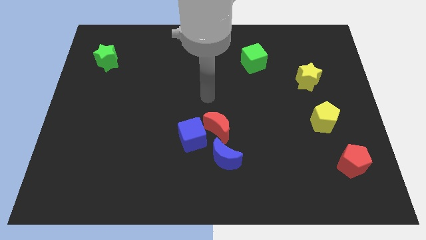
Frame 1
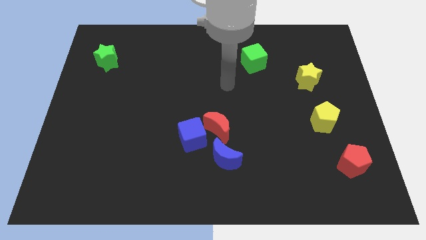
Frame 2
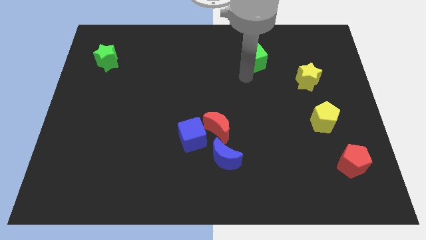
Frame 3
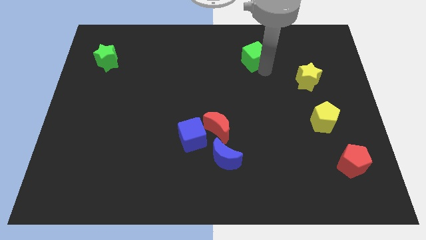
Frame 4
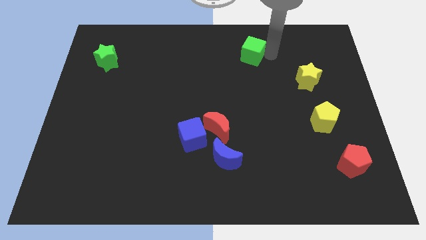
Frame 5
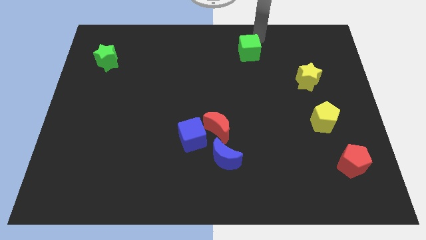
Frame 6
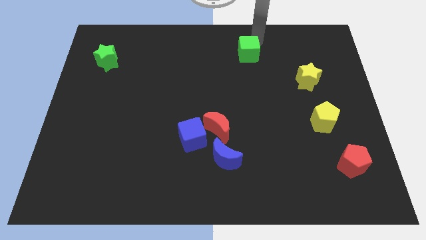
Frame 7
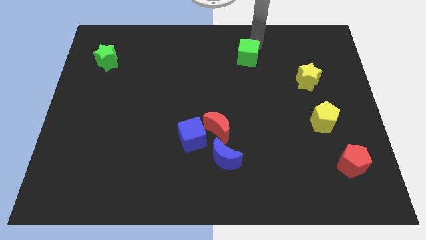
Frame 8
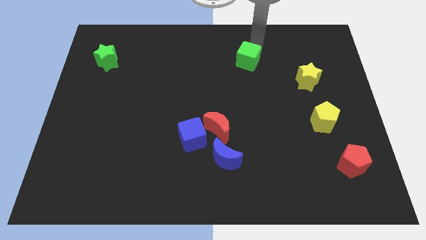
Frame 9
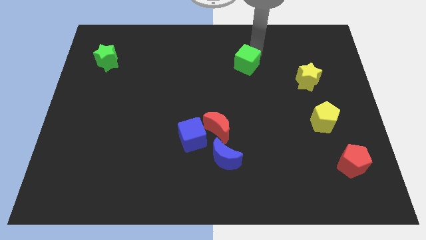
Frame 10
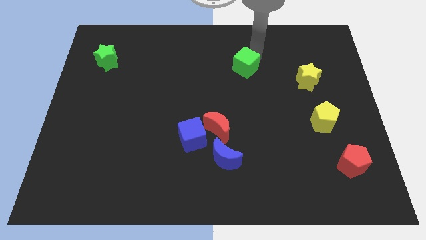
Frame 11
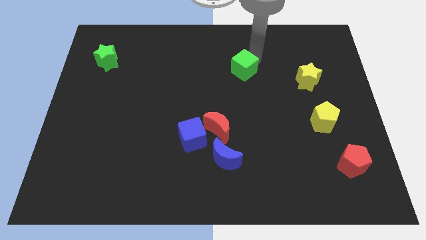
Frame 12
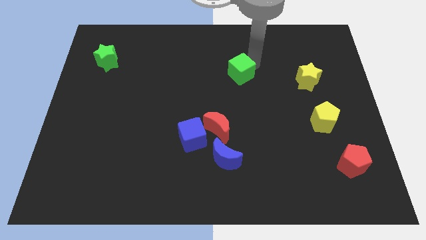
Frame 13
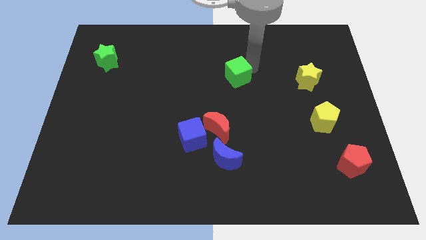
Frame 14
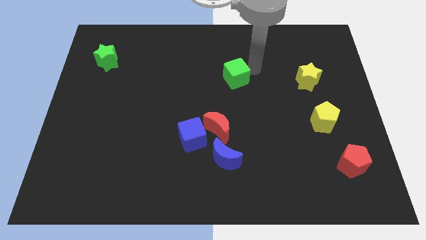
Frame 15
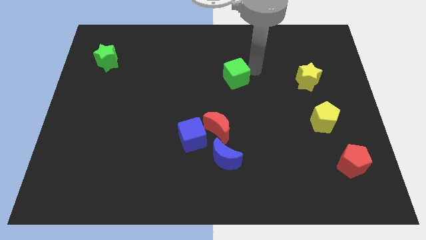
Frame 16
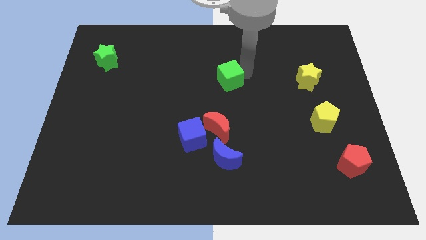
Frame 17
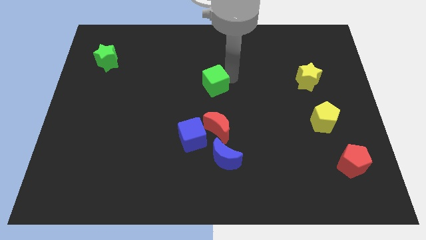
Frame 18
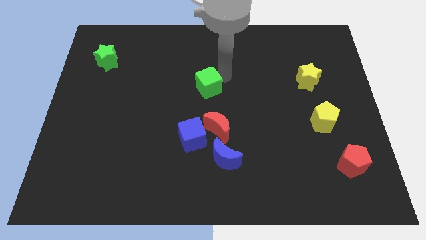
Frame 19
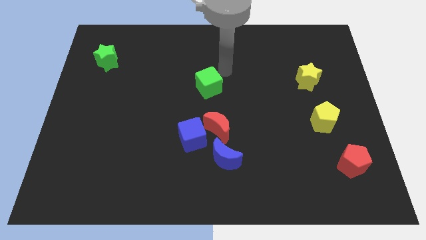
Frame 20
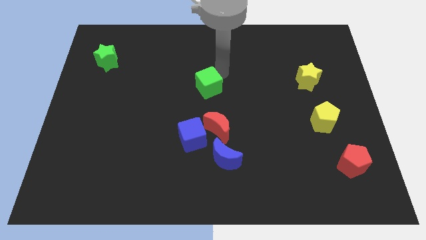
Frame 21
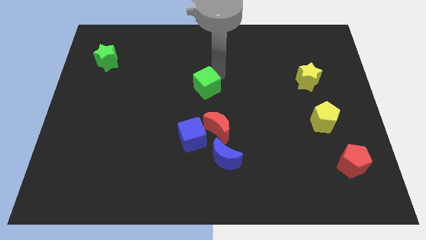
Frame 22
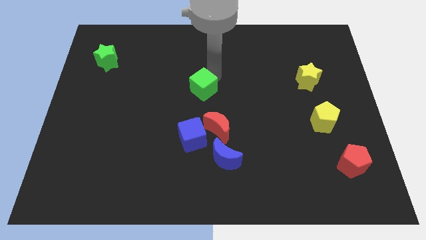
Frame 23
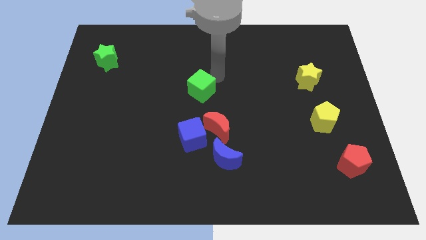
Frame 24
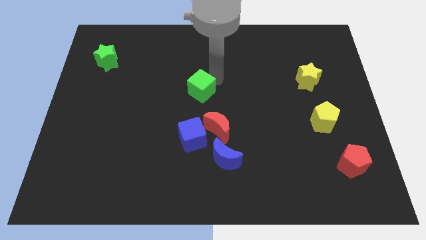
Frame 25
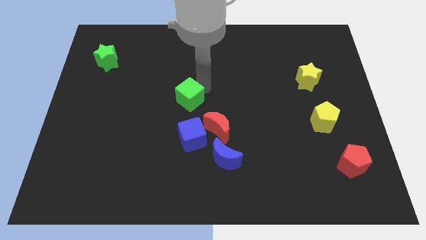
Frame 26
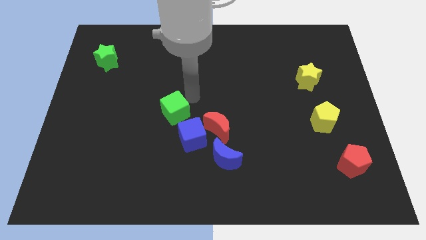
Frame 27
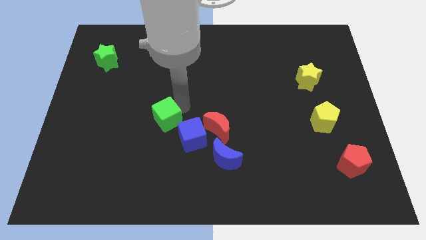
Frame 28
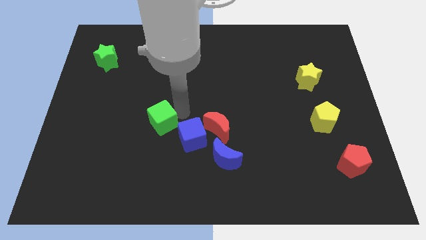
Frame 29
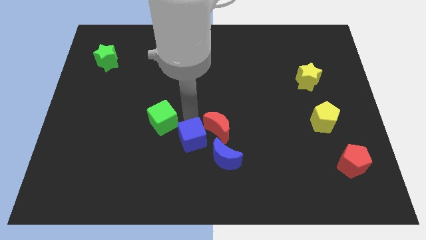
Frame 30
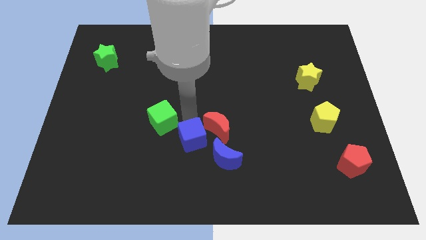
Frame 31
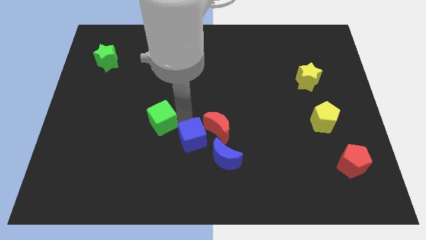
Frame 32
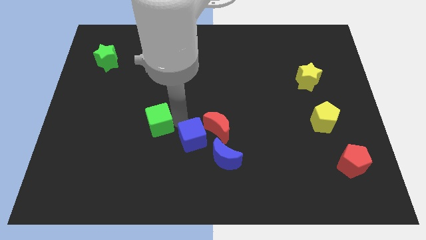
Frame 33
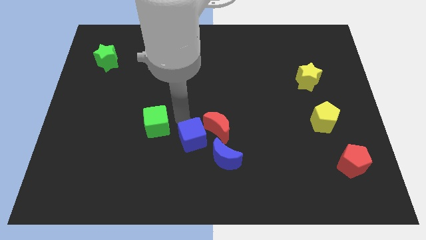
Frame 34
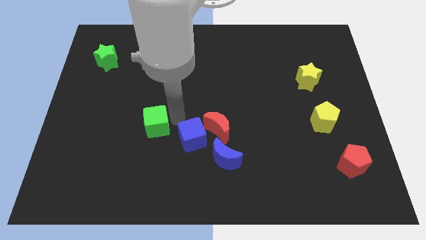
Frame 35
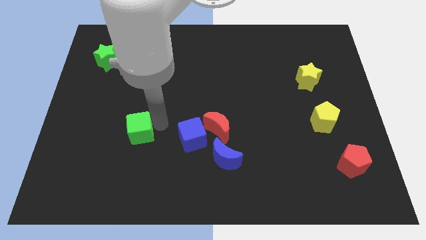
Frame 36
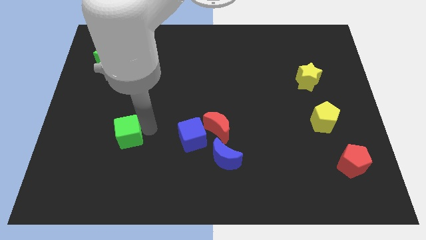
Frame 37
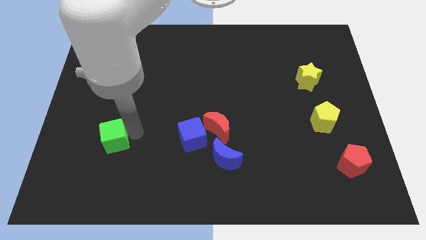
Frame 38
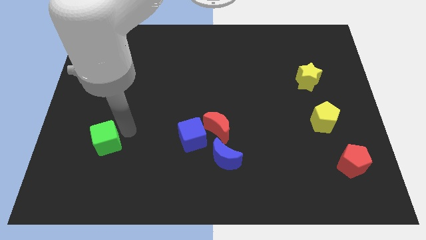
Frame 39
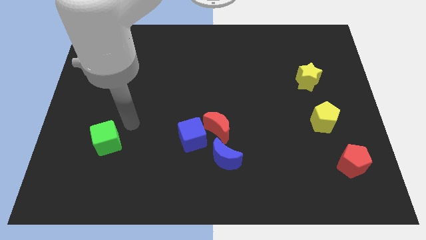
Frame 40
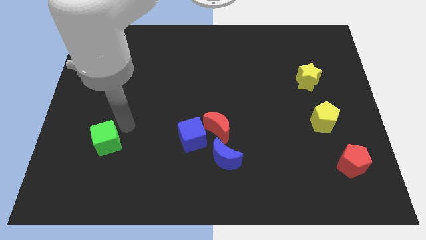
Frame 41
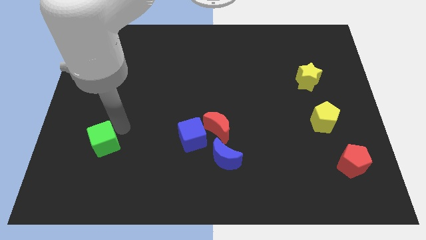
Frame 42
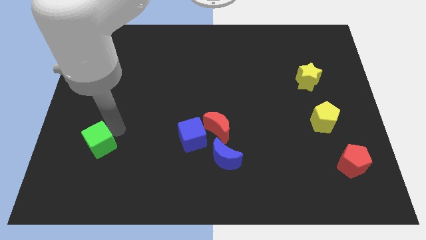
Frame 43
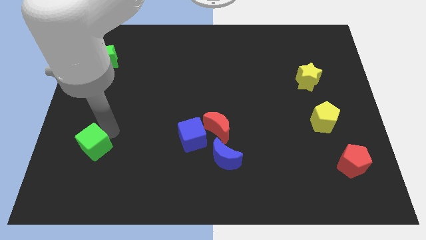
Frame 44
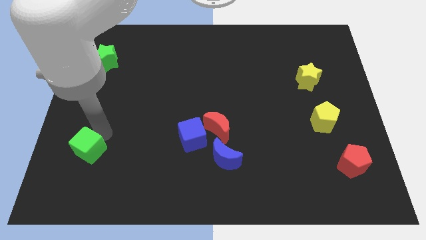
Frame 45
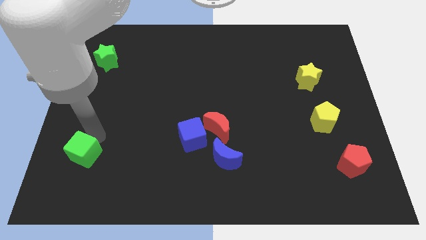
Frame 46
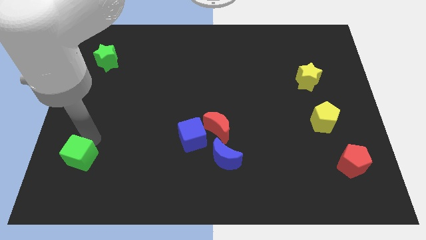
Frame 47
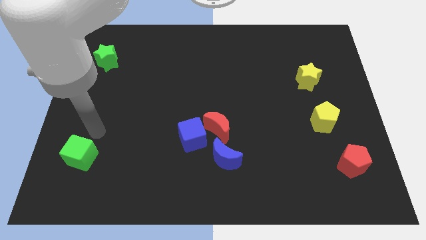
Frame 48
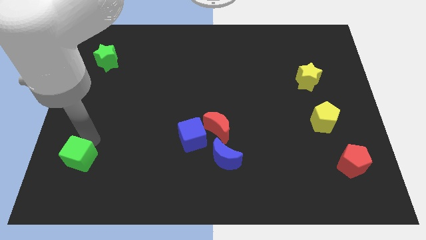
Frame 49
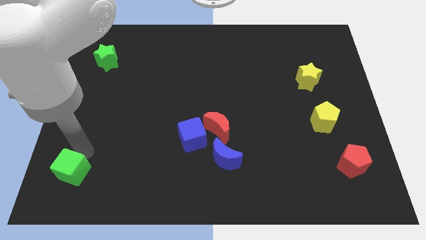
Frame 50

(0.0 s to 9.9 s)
move the green cube to the bottom left

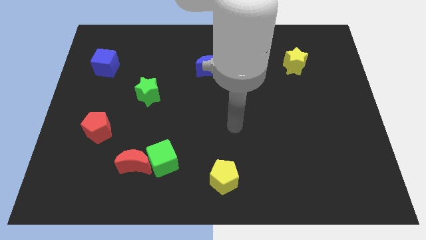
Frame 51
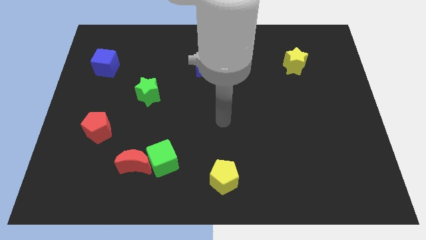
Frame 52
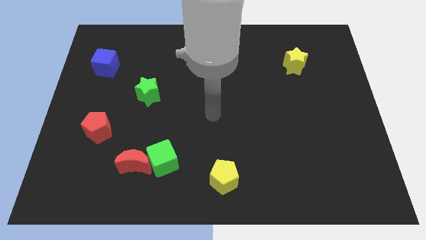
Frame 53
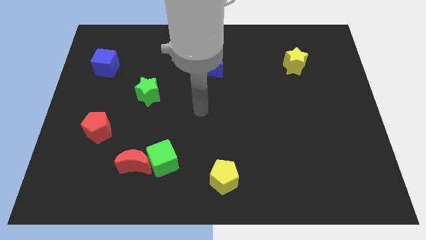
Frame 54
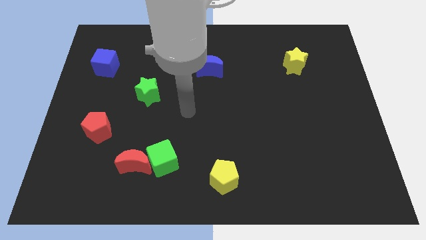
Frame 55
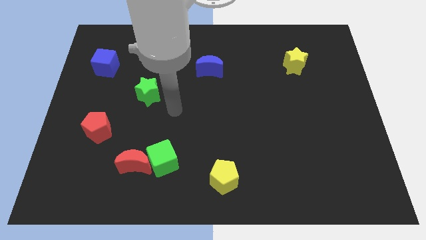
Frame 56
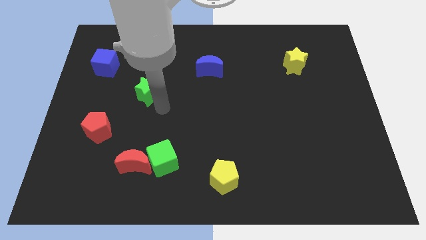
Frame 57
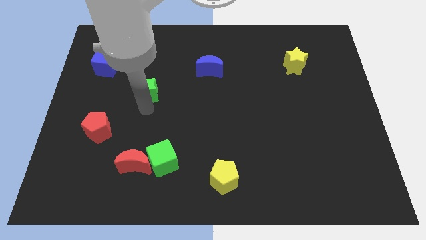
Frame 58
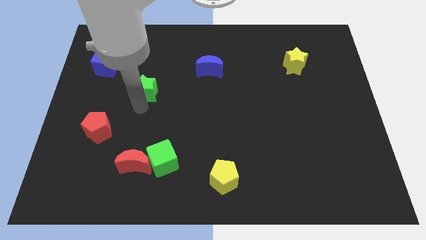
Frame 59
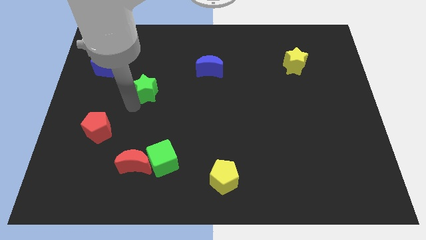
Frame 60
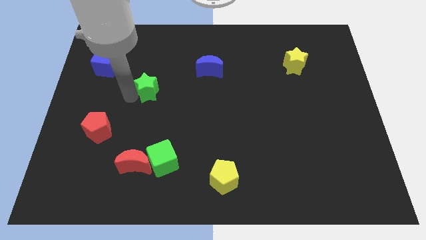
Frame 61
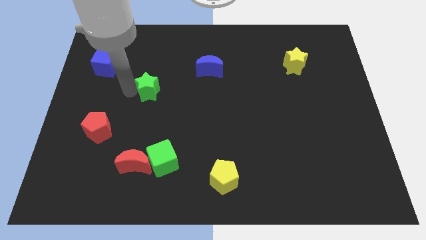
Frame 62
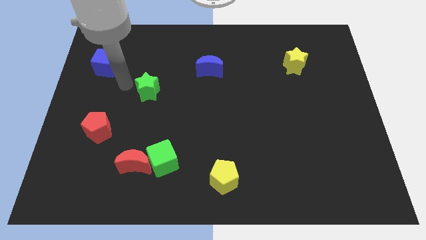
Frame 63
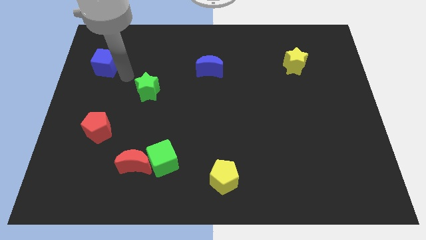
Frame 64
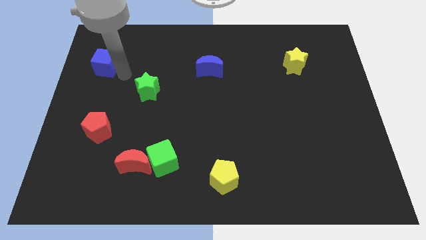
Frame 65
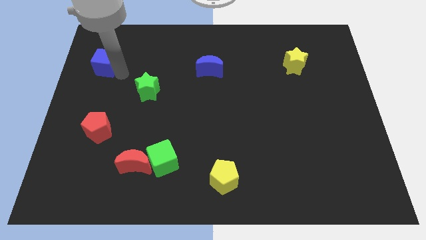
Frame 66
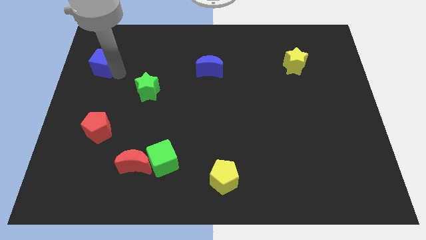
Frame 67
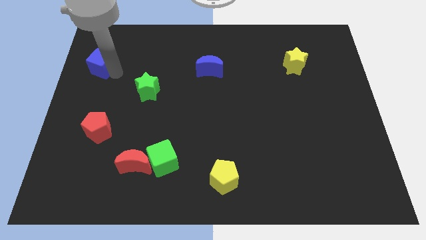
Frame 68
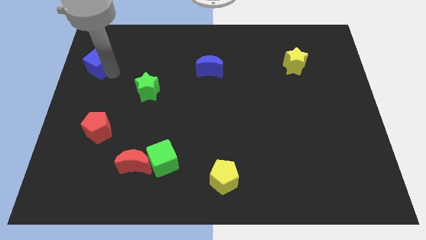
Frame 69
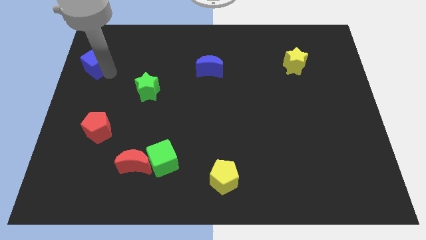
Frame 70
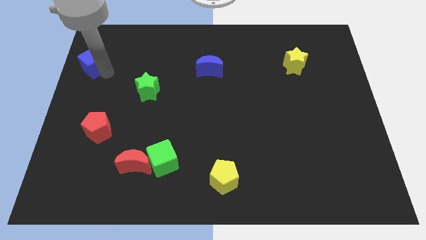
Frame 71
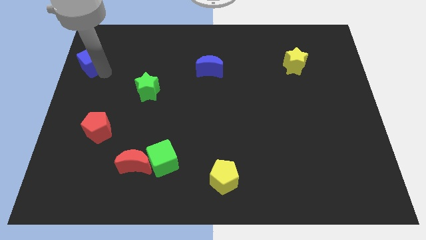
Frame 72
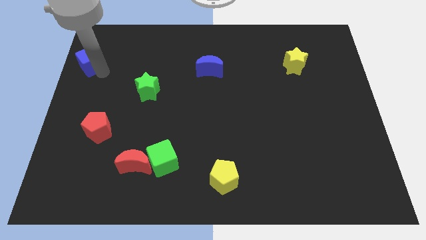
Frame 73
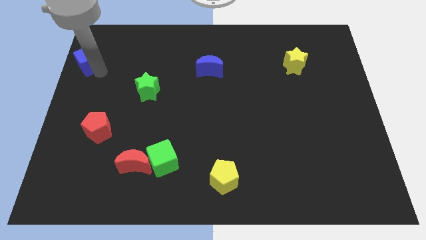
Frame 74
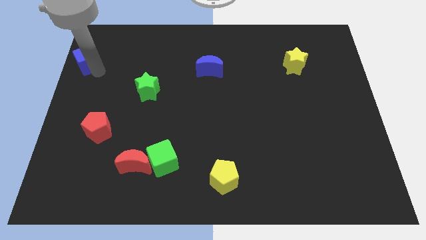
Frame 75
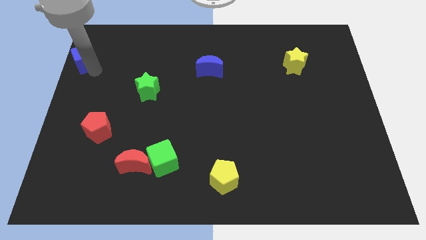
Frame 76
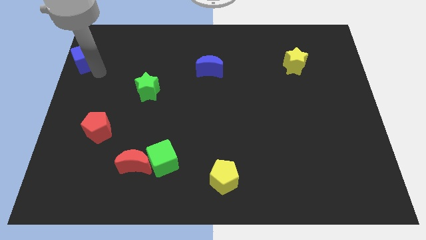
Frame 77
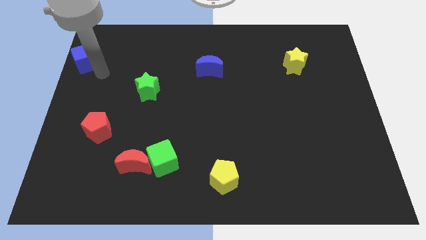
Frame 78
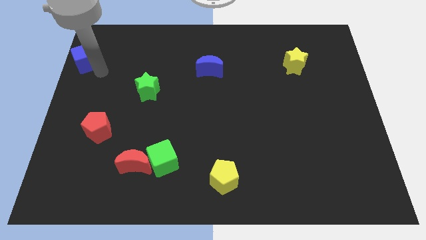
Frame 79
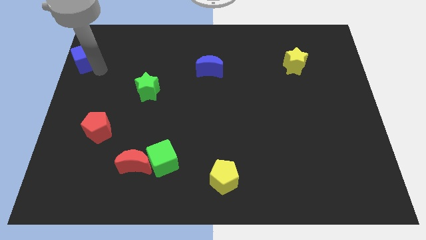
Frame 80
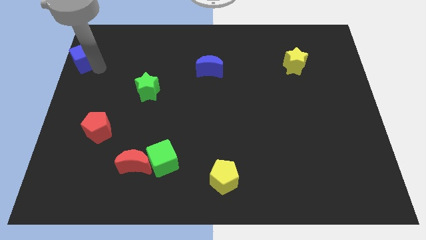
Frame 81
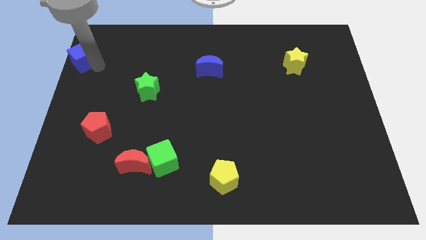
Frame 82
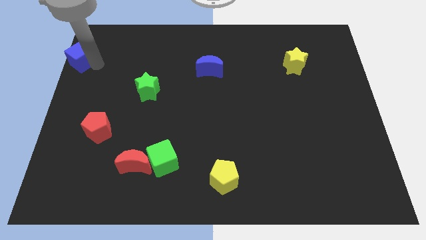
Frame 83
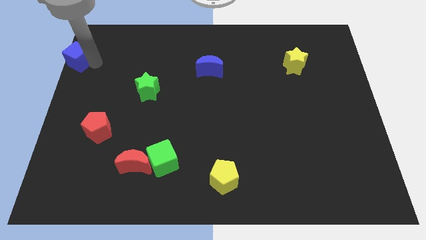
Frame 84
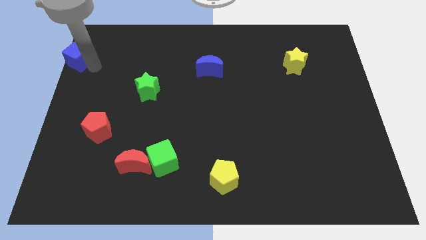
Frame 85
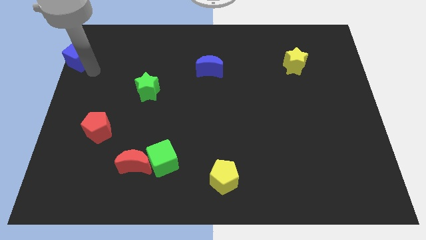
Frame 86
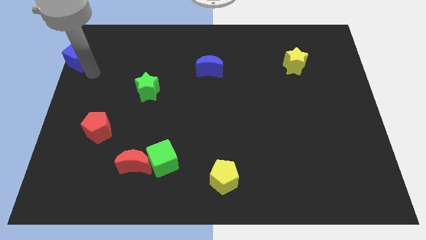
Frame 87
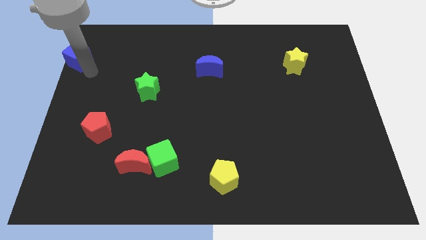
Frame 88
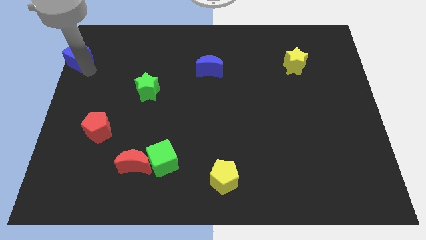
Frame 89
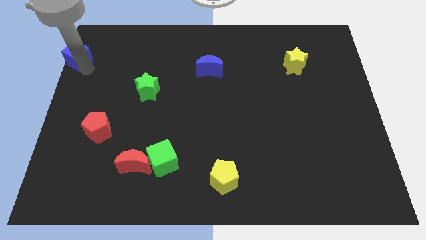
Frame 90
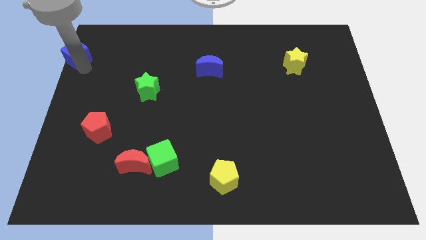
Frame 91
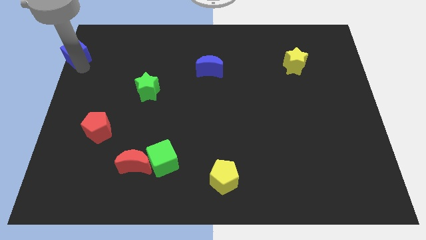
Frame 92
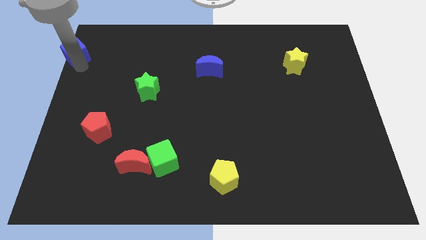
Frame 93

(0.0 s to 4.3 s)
move the blue cube to the top left of the board
